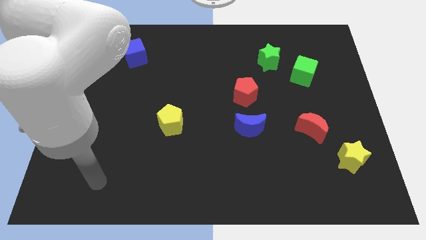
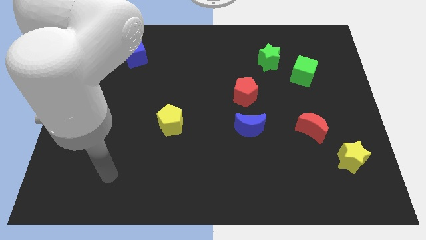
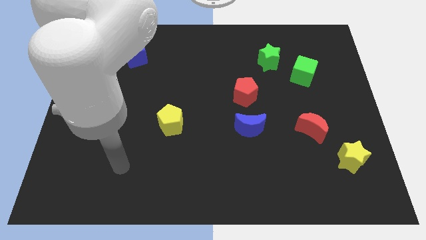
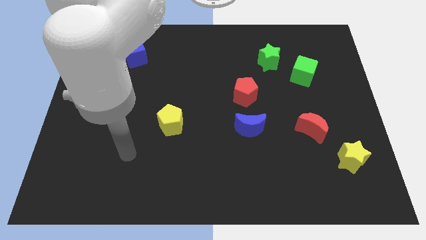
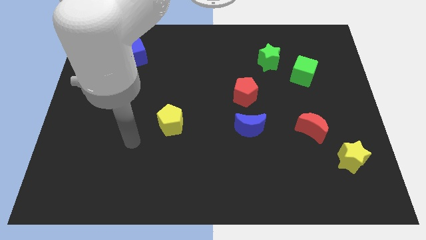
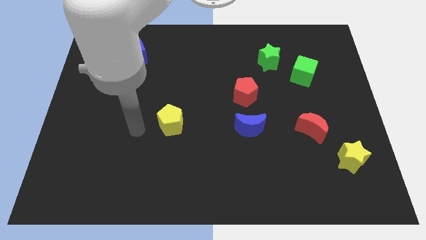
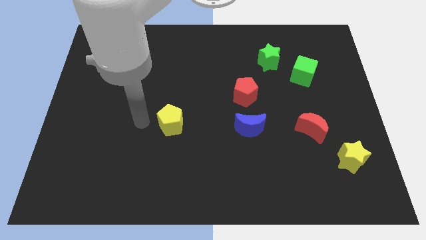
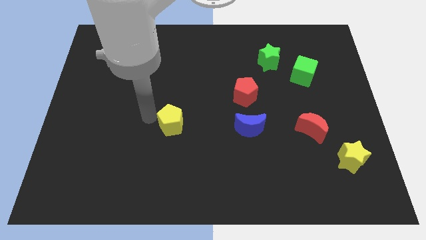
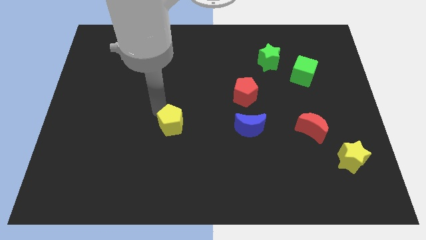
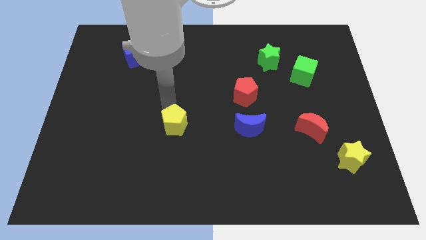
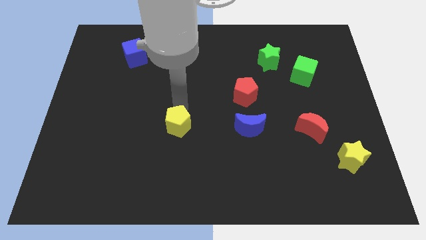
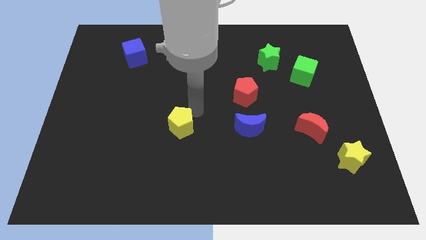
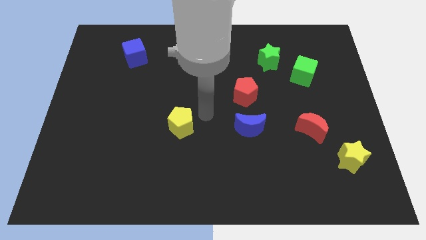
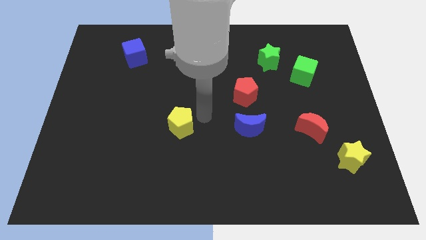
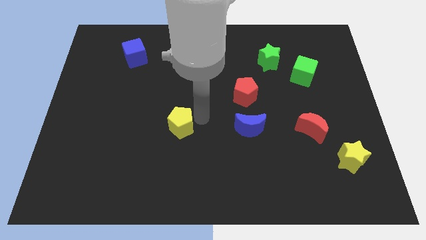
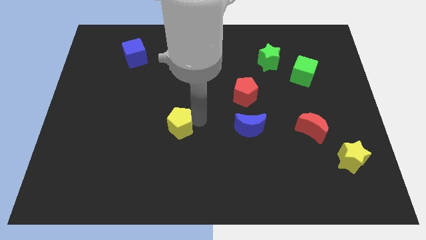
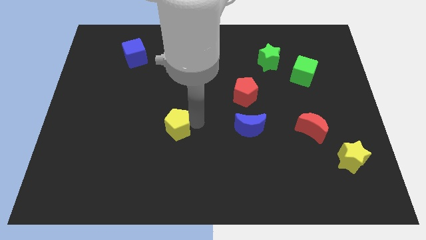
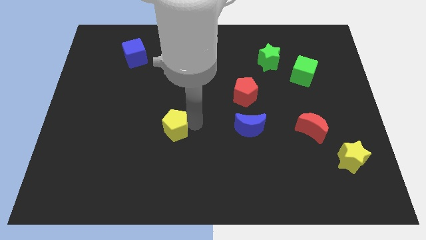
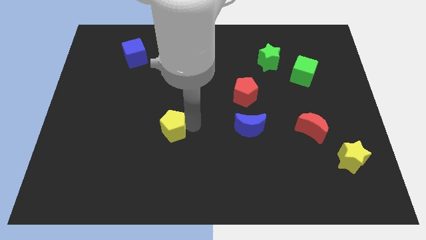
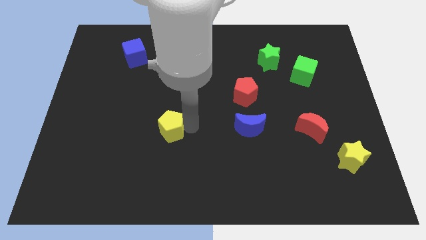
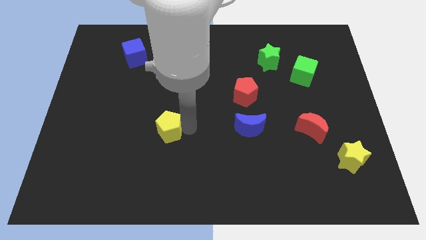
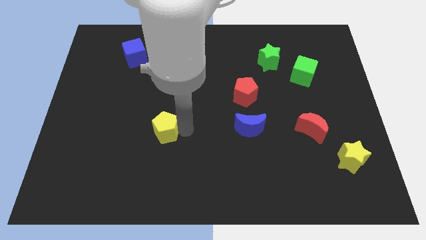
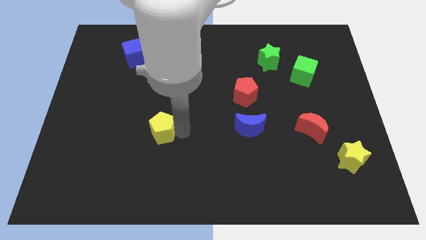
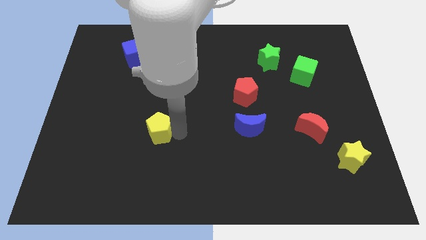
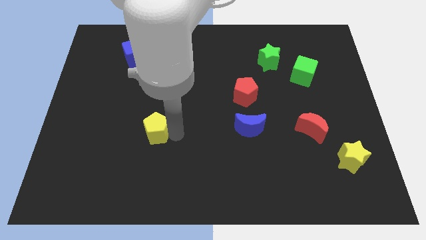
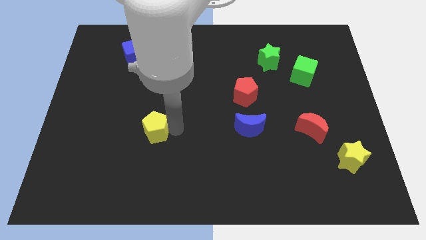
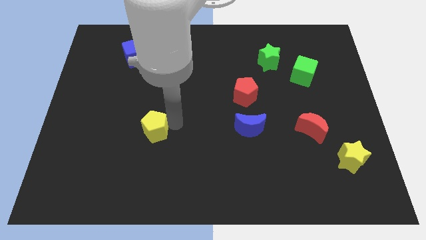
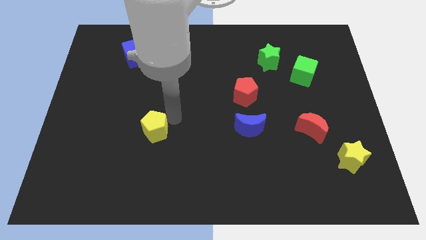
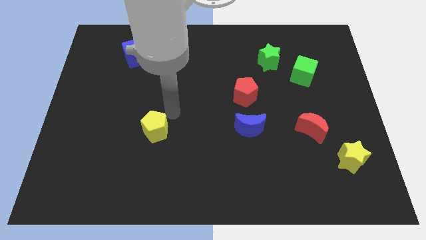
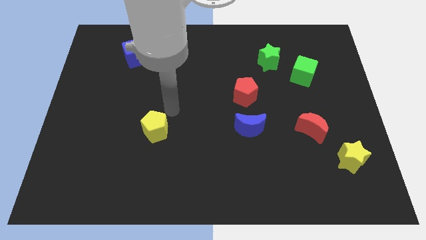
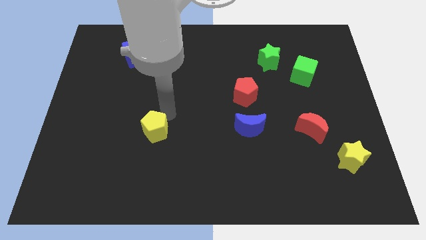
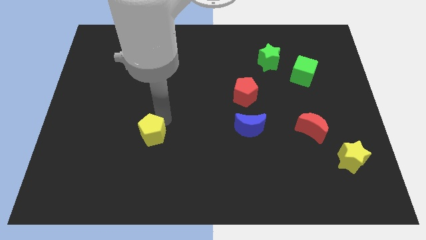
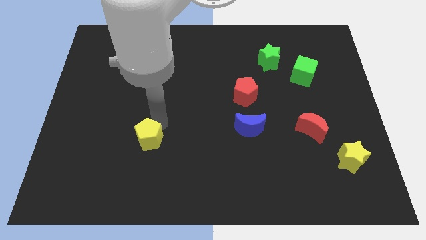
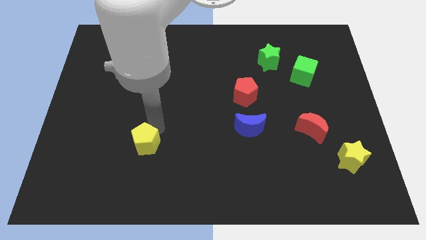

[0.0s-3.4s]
slide the yellow pentagon down and left diagonally a little

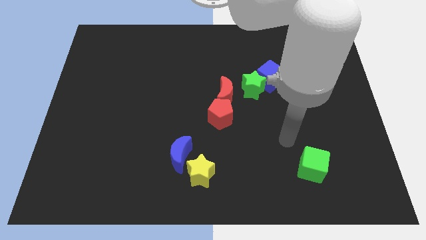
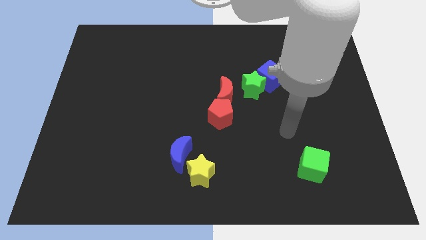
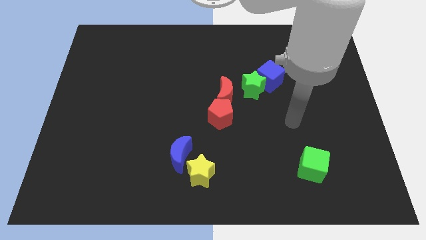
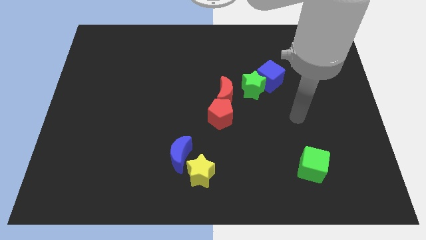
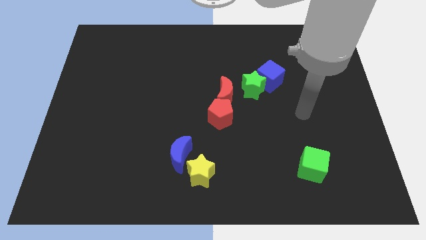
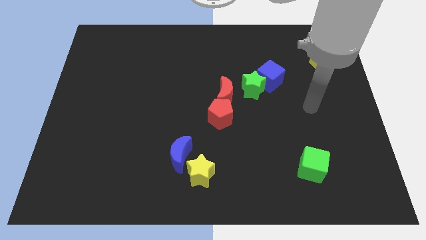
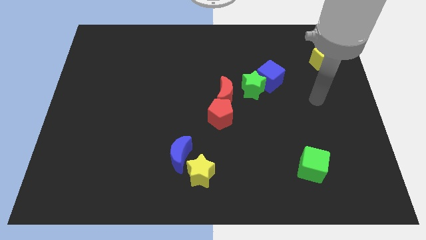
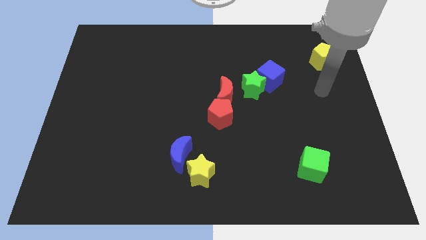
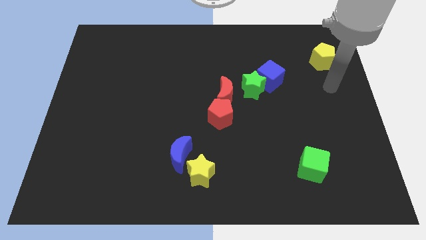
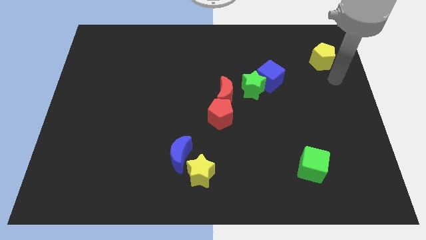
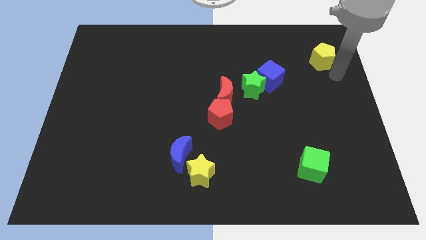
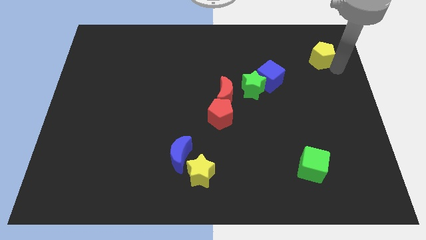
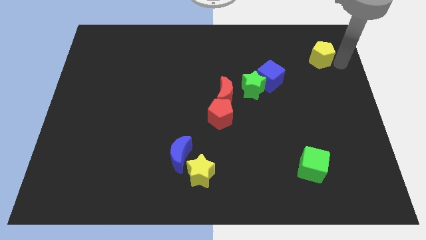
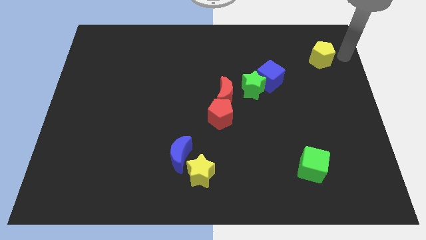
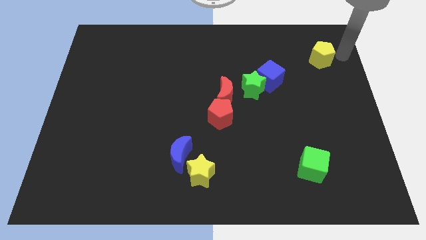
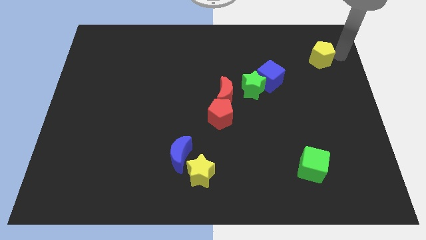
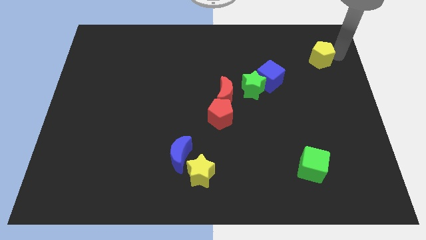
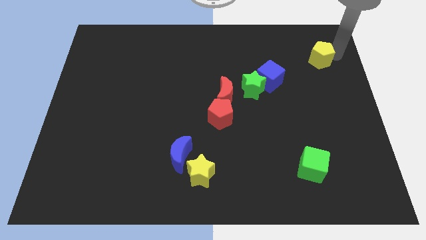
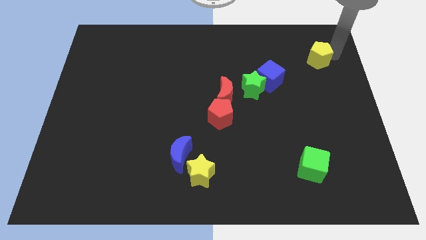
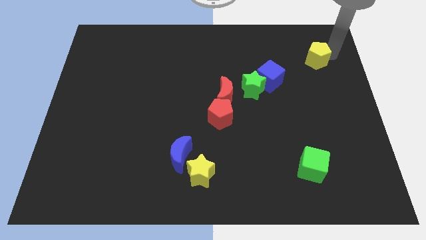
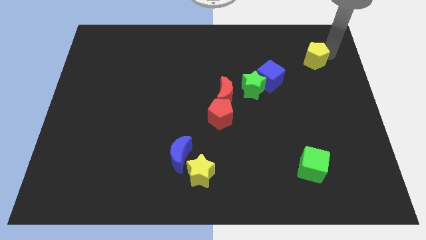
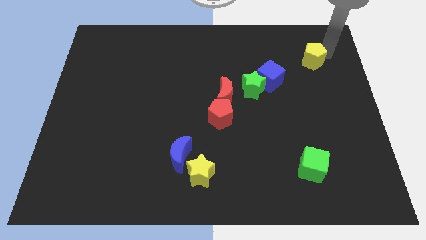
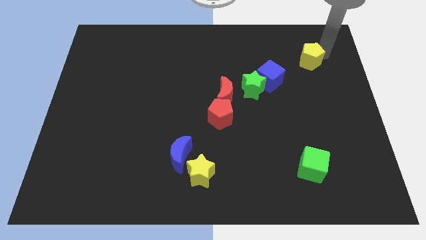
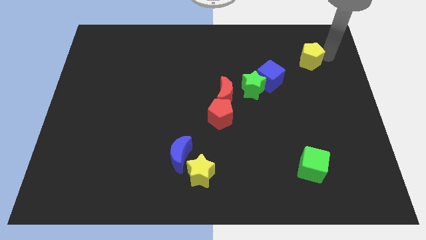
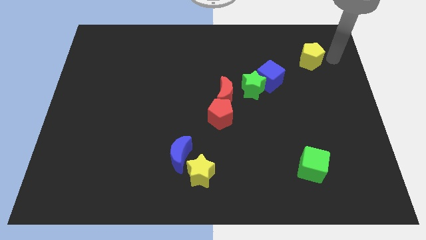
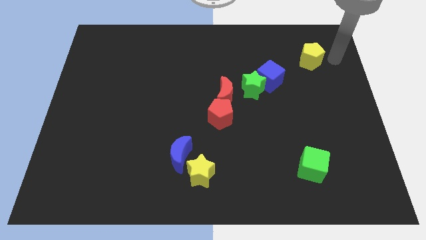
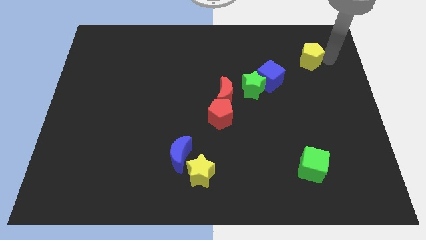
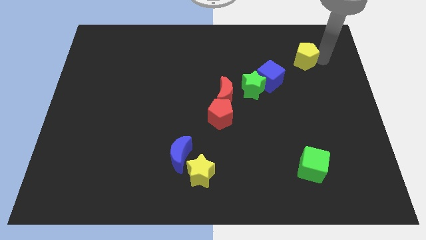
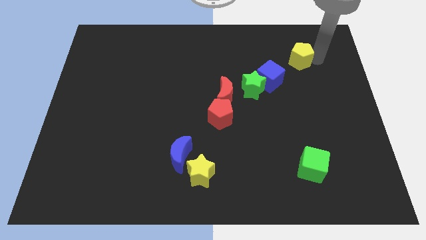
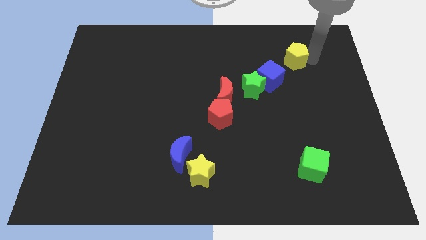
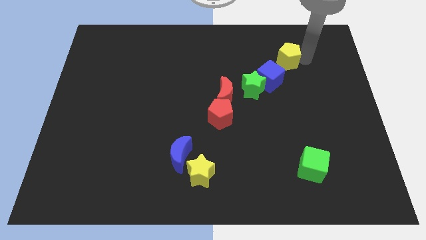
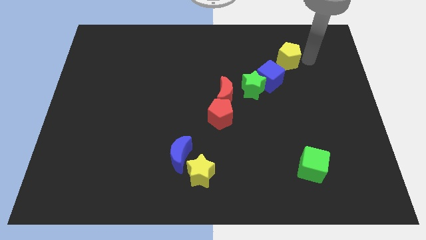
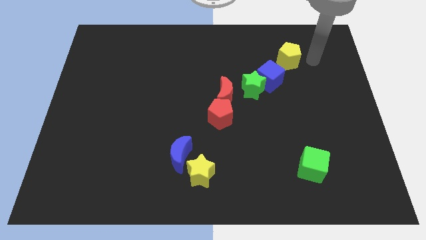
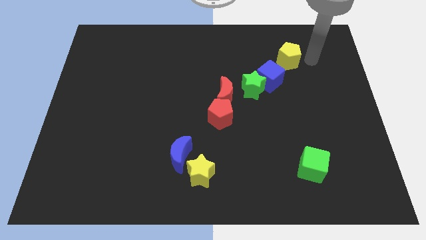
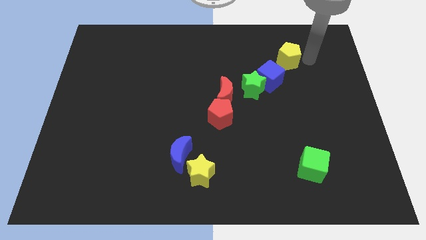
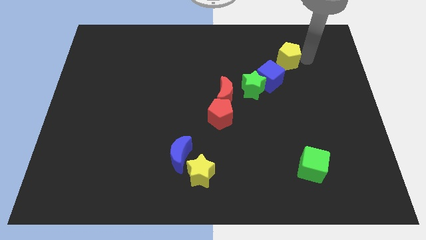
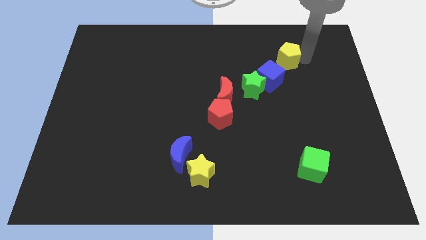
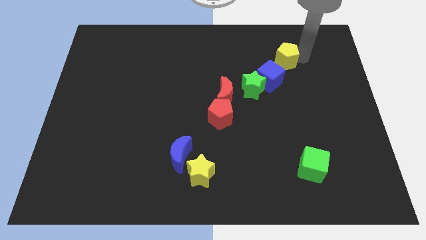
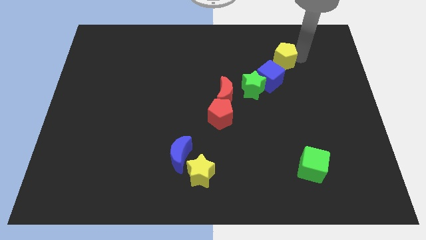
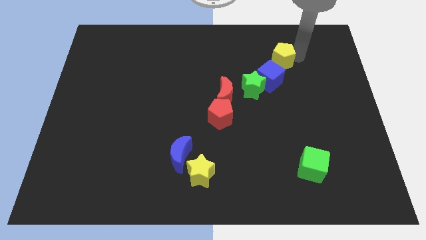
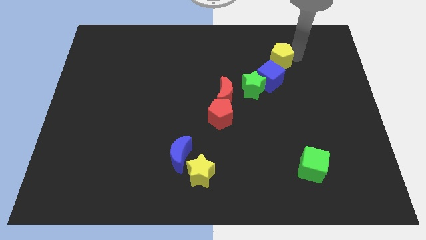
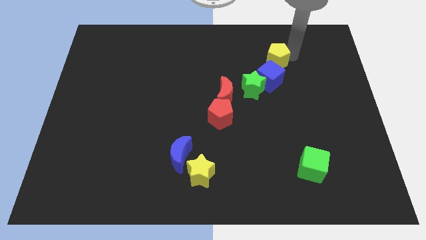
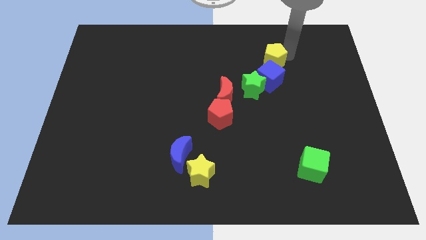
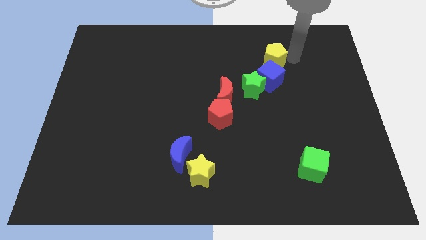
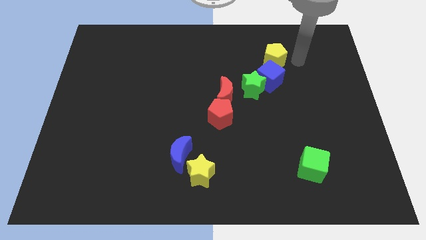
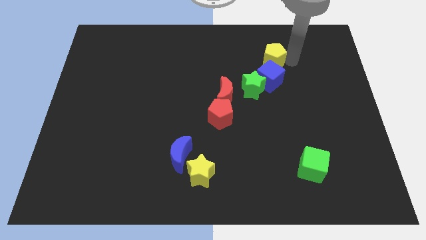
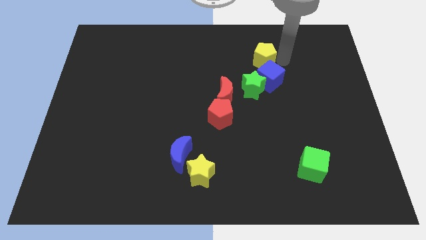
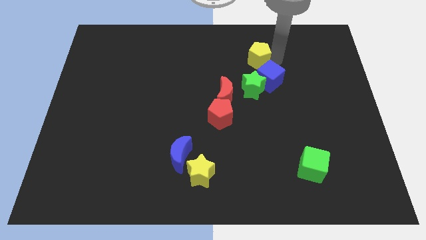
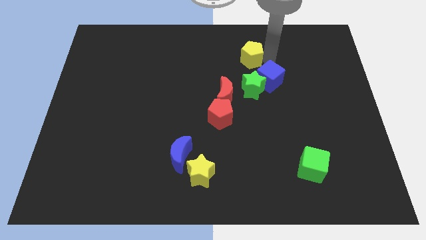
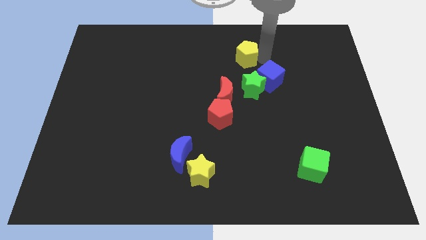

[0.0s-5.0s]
push the yellow pentagon left
